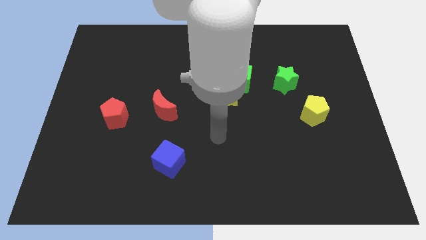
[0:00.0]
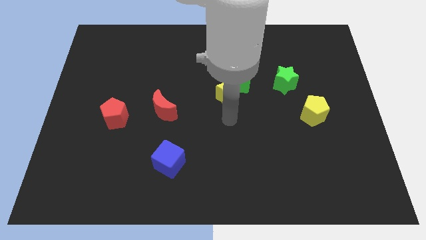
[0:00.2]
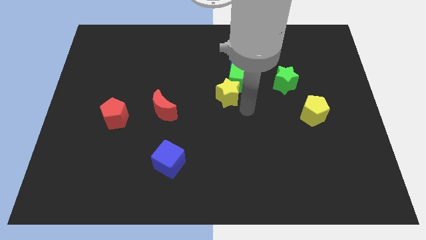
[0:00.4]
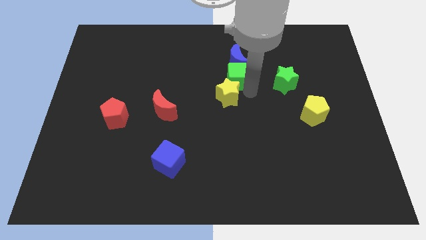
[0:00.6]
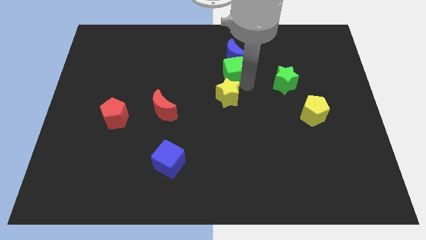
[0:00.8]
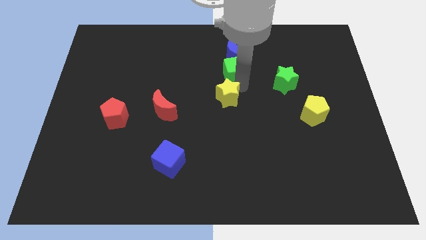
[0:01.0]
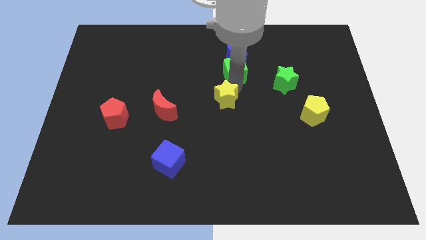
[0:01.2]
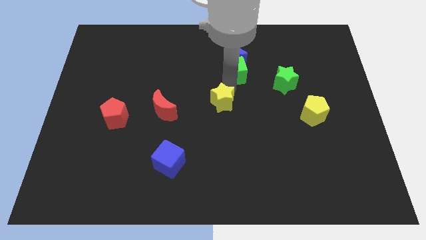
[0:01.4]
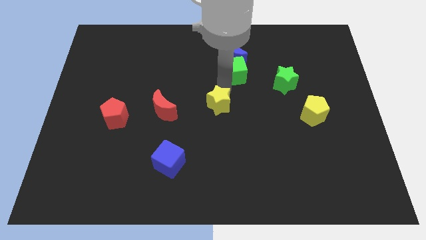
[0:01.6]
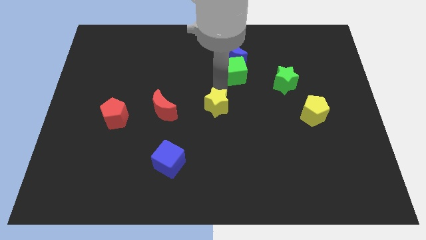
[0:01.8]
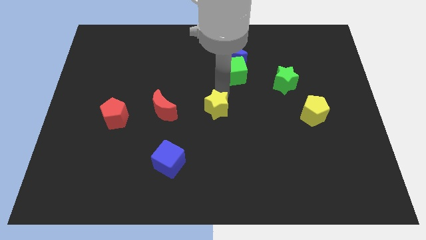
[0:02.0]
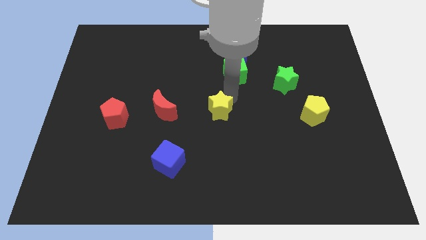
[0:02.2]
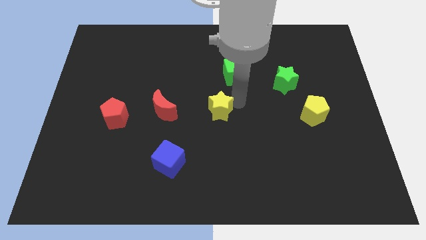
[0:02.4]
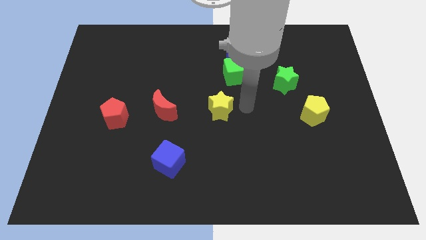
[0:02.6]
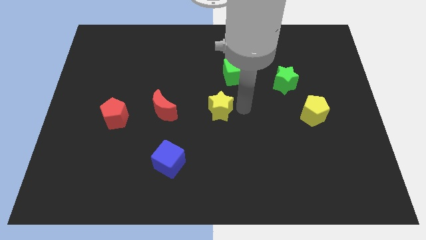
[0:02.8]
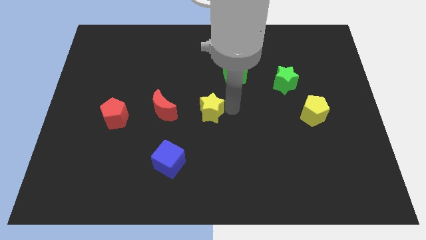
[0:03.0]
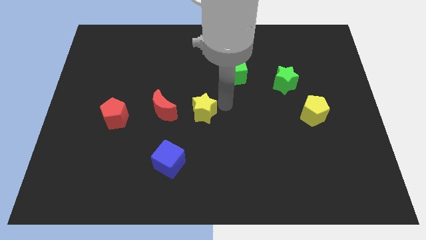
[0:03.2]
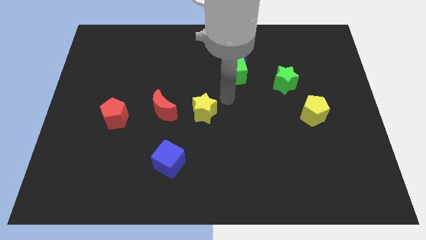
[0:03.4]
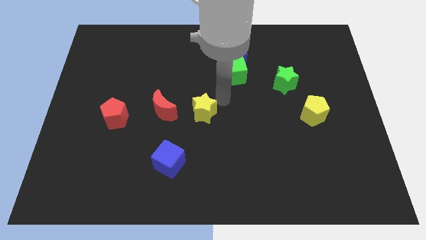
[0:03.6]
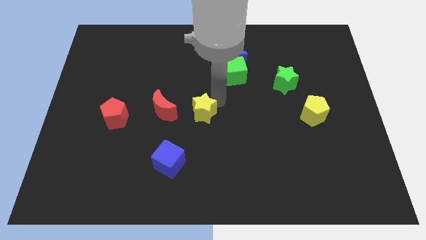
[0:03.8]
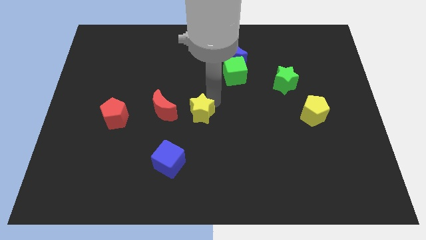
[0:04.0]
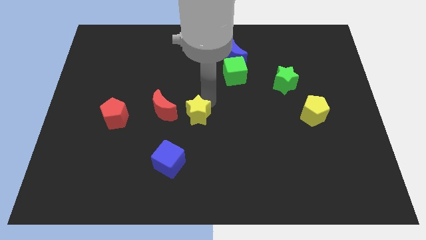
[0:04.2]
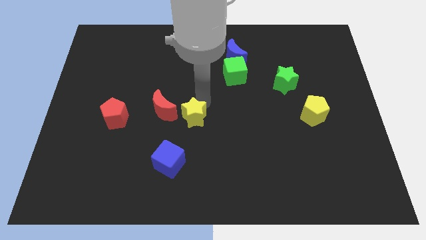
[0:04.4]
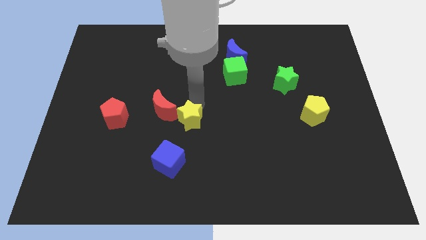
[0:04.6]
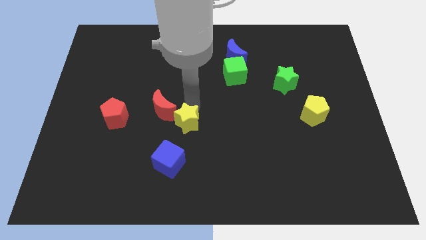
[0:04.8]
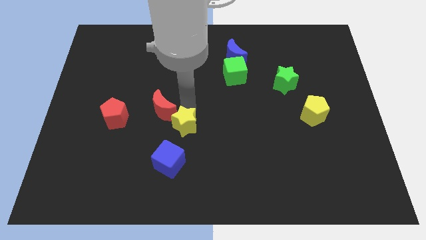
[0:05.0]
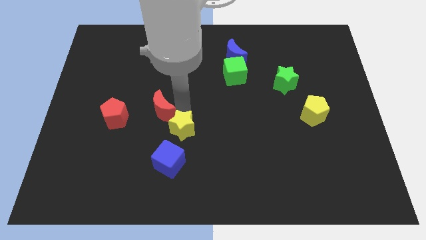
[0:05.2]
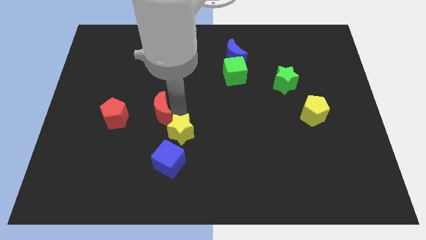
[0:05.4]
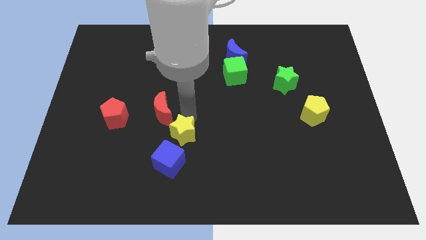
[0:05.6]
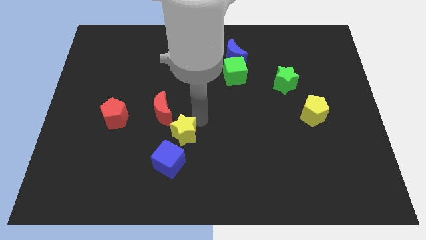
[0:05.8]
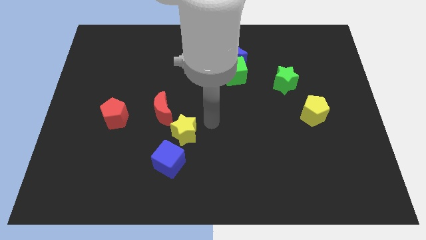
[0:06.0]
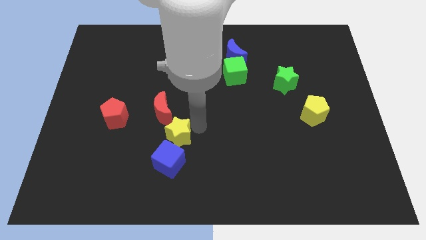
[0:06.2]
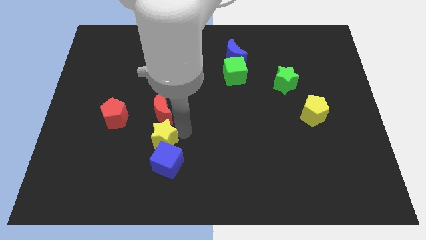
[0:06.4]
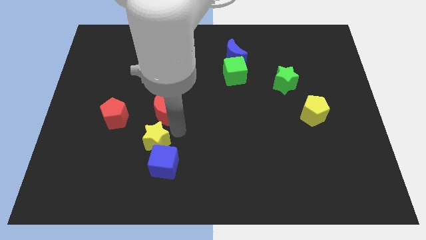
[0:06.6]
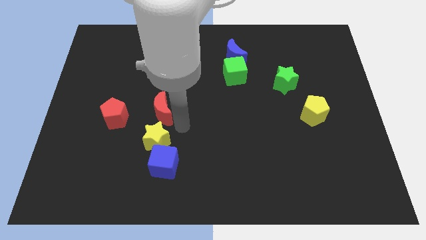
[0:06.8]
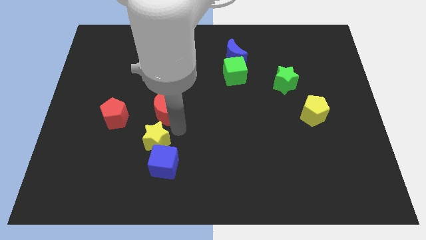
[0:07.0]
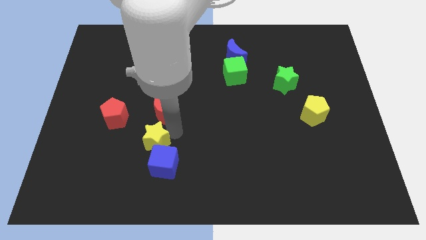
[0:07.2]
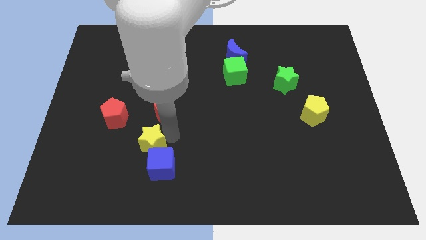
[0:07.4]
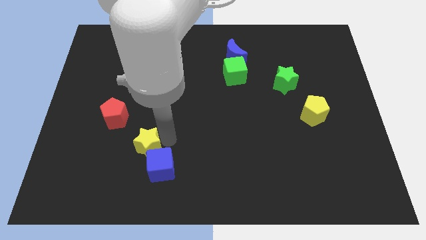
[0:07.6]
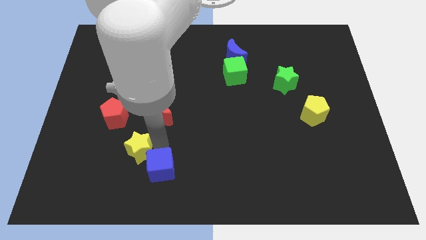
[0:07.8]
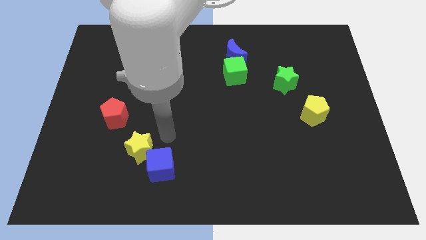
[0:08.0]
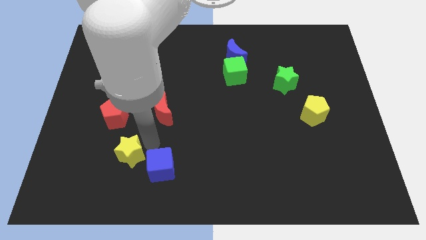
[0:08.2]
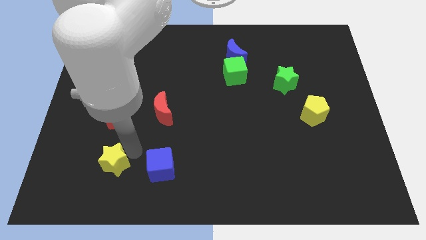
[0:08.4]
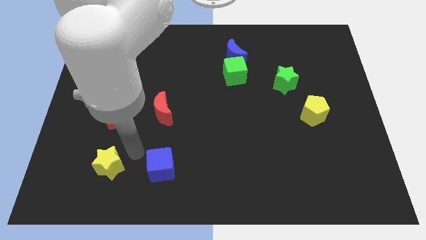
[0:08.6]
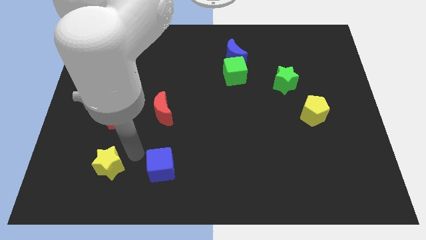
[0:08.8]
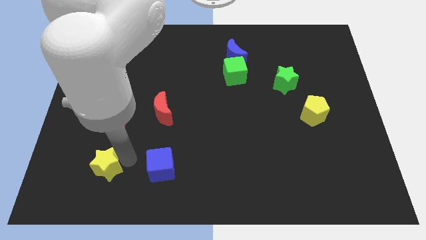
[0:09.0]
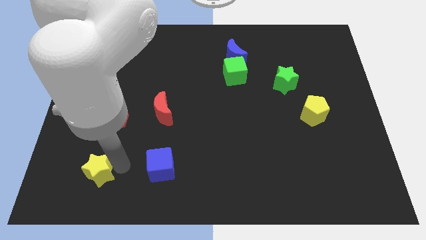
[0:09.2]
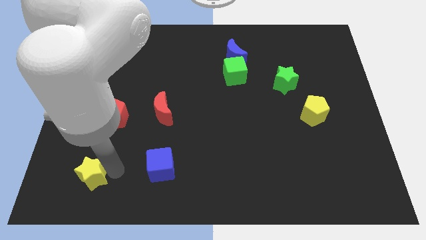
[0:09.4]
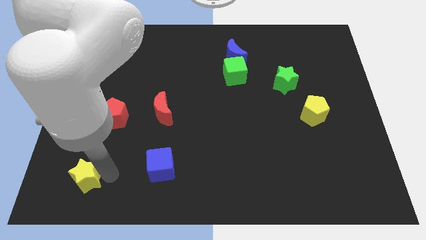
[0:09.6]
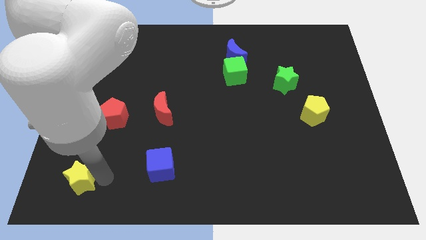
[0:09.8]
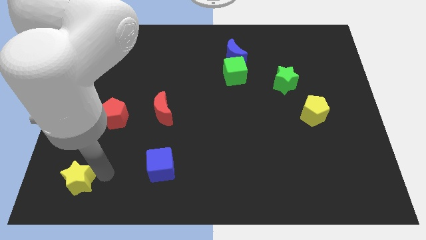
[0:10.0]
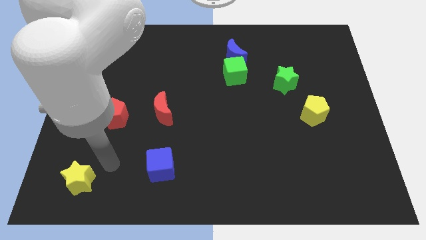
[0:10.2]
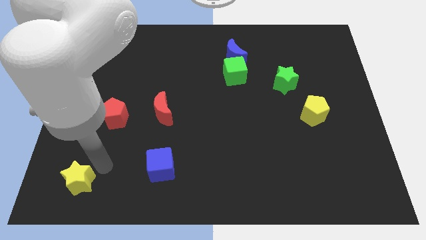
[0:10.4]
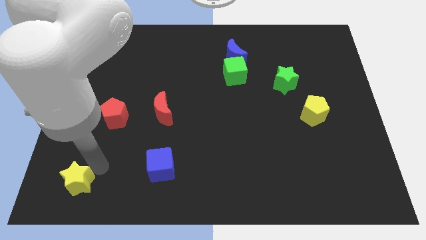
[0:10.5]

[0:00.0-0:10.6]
push the yellow star to the bottom left

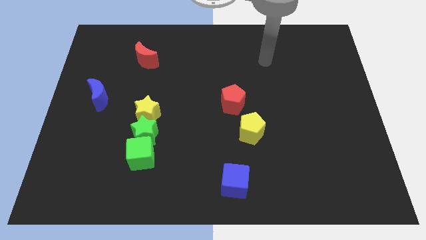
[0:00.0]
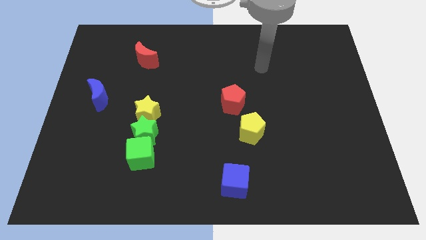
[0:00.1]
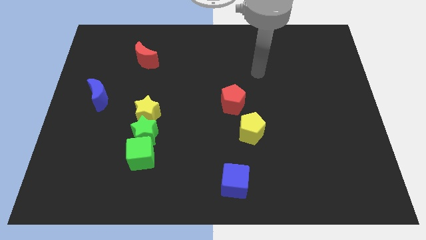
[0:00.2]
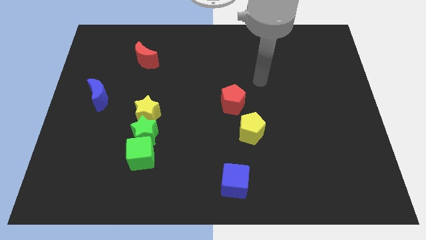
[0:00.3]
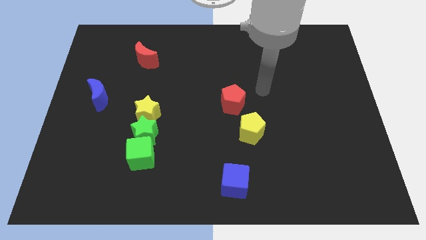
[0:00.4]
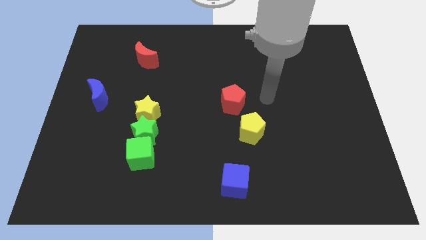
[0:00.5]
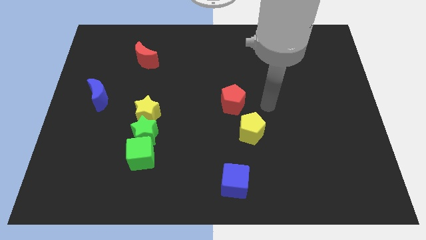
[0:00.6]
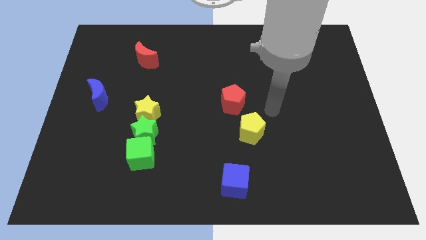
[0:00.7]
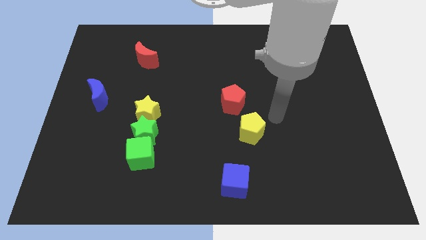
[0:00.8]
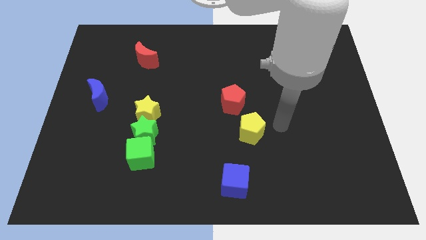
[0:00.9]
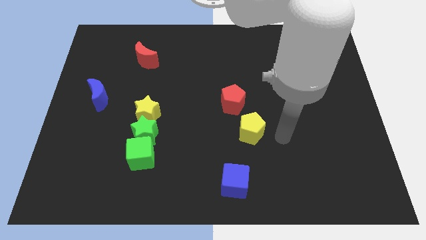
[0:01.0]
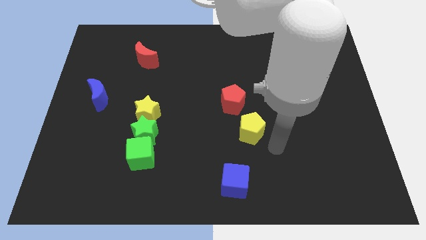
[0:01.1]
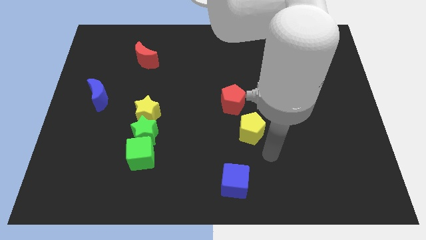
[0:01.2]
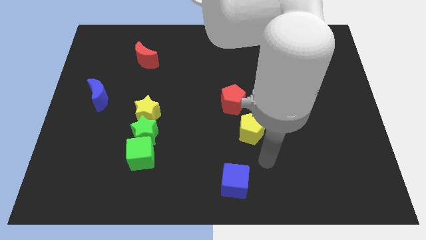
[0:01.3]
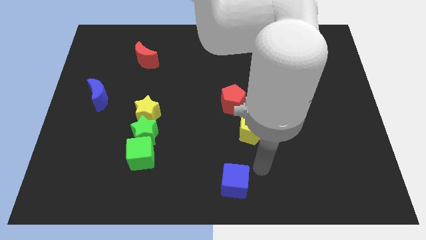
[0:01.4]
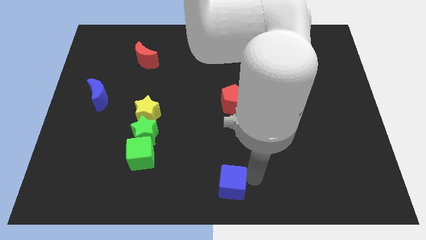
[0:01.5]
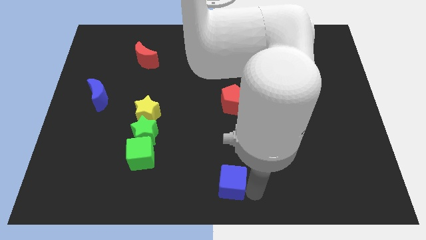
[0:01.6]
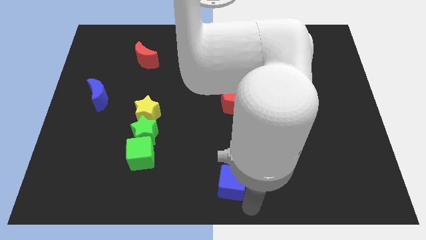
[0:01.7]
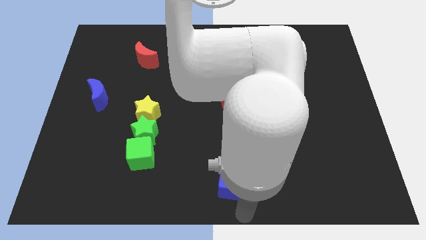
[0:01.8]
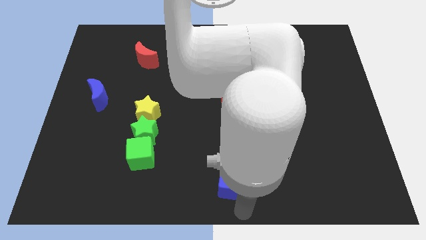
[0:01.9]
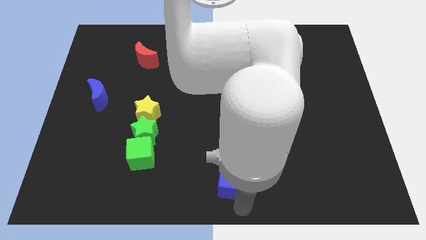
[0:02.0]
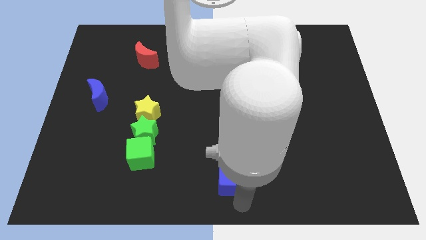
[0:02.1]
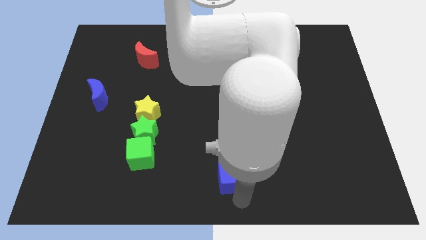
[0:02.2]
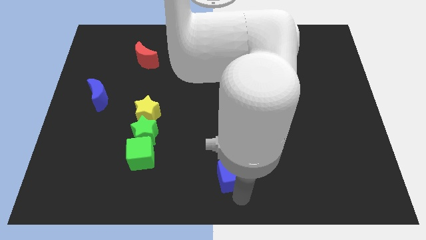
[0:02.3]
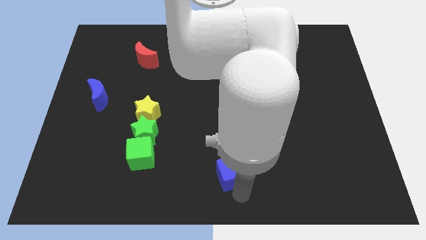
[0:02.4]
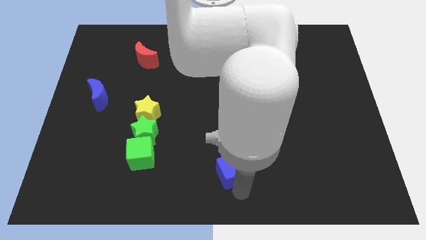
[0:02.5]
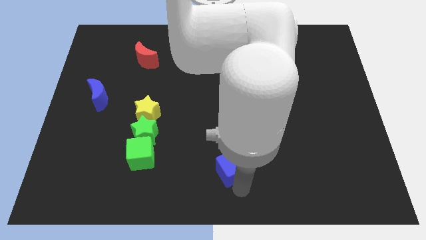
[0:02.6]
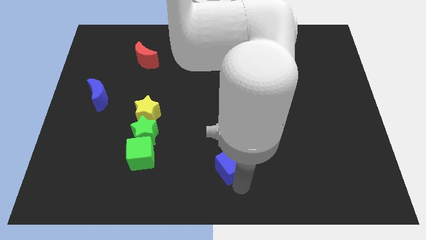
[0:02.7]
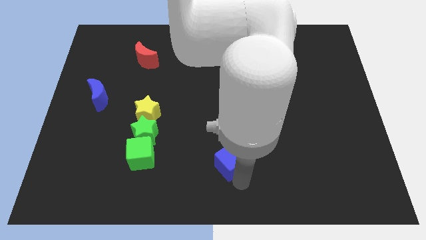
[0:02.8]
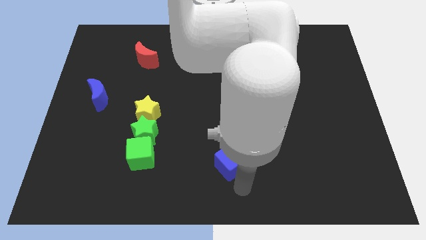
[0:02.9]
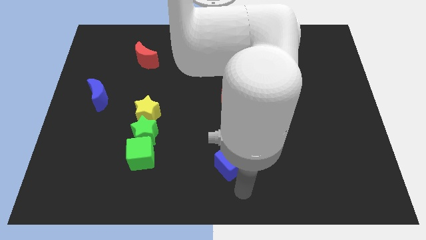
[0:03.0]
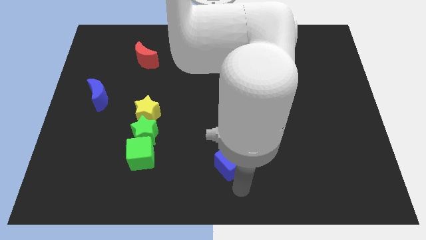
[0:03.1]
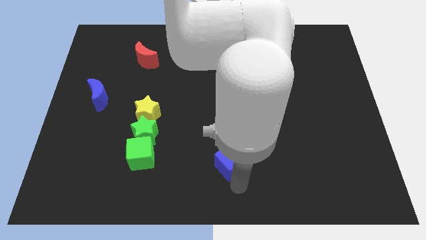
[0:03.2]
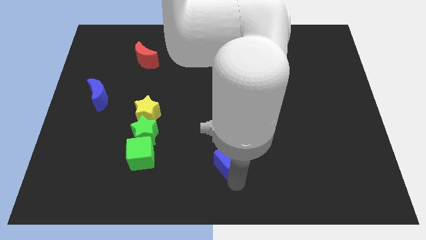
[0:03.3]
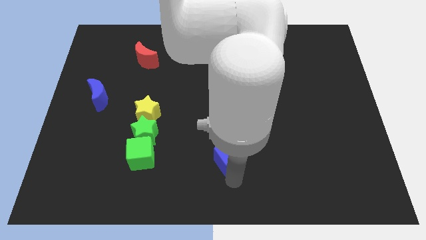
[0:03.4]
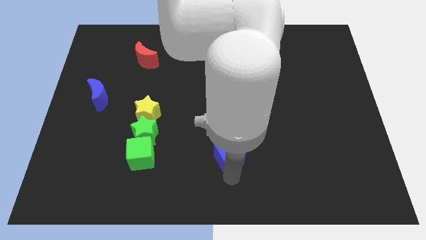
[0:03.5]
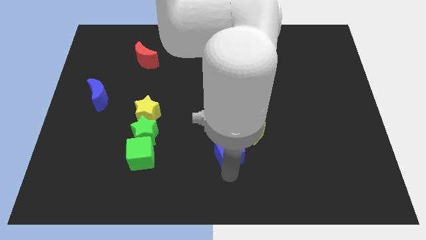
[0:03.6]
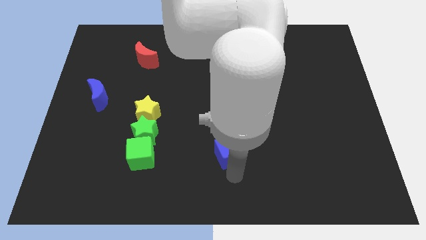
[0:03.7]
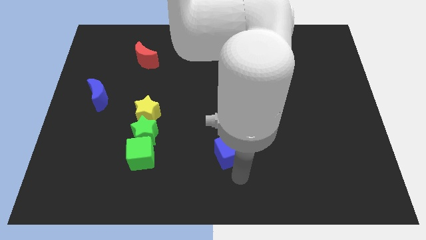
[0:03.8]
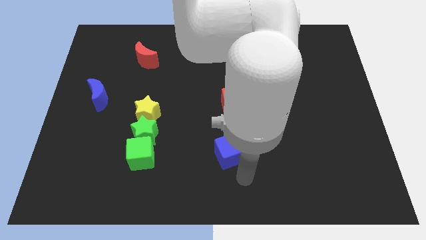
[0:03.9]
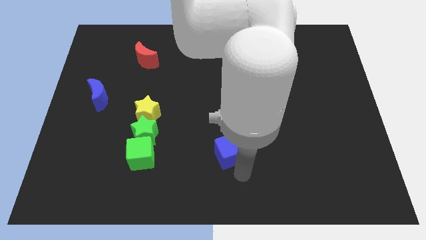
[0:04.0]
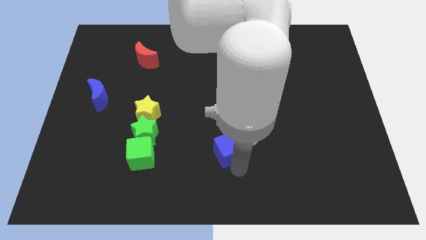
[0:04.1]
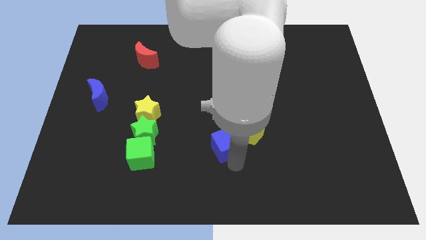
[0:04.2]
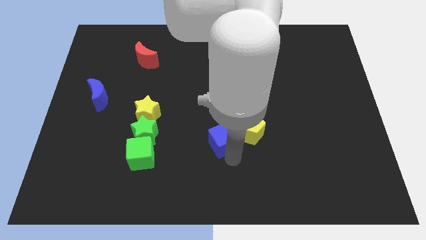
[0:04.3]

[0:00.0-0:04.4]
put the blue cube to the middle of the board
